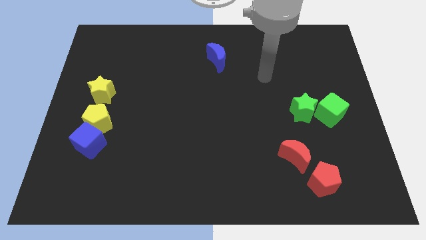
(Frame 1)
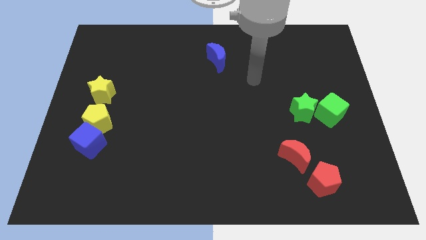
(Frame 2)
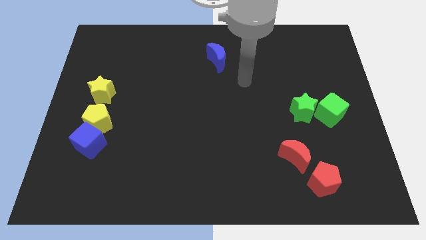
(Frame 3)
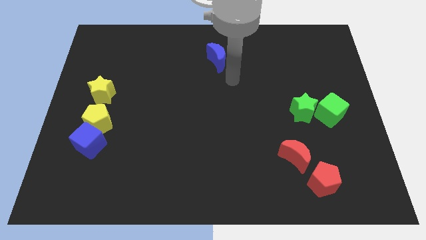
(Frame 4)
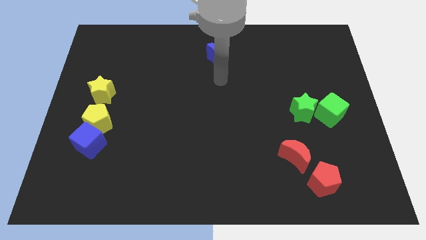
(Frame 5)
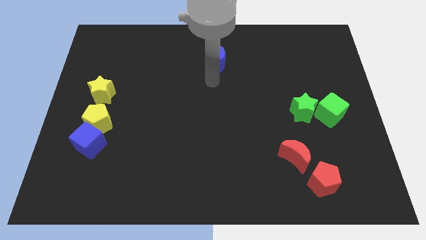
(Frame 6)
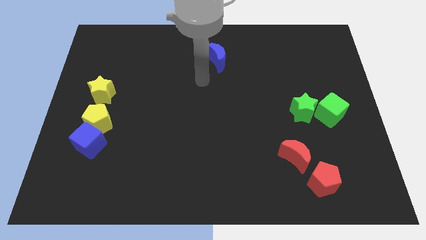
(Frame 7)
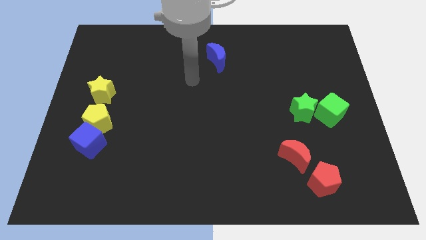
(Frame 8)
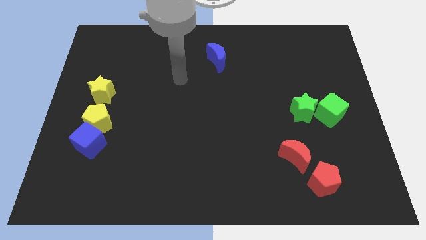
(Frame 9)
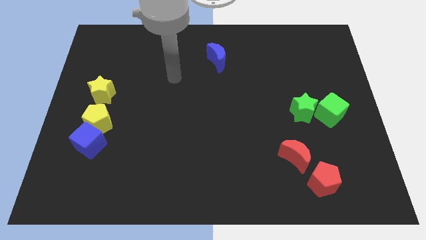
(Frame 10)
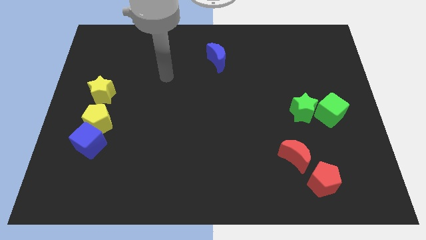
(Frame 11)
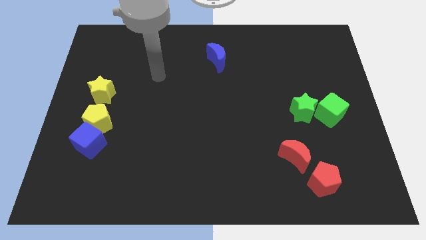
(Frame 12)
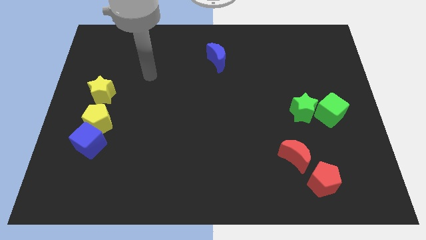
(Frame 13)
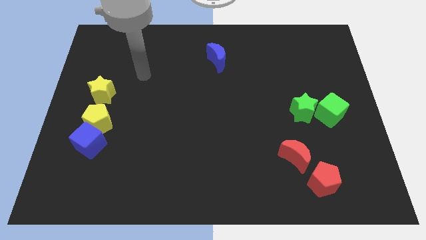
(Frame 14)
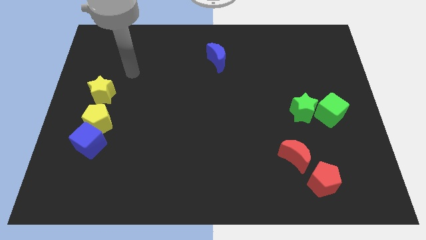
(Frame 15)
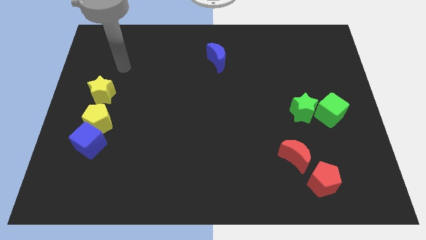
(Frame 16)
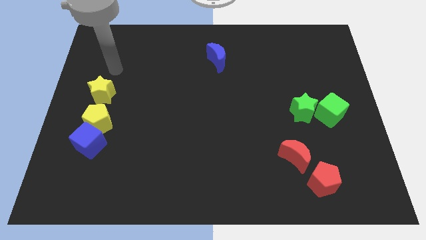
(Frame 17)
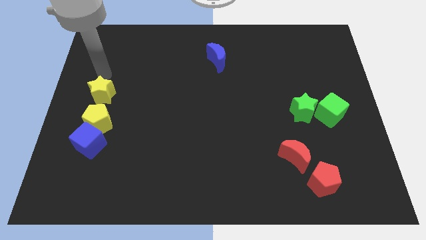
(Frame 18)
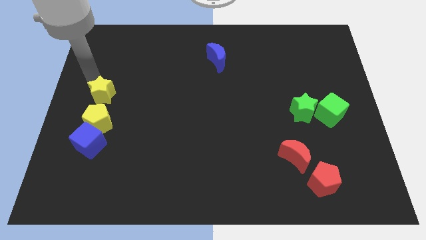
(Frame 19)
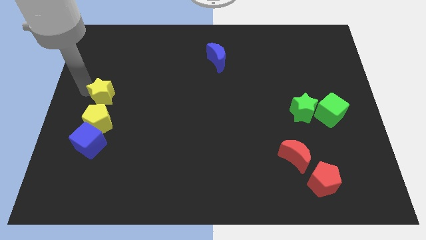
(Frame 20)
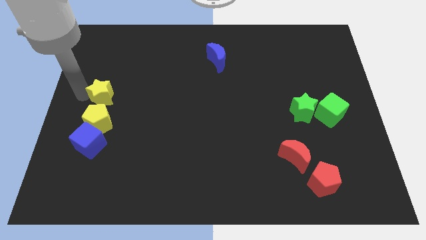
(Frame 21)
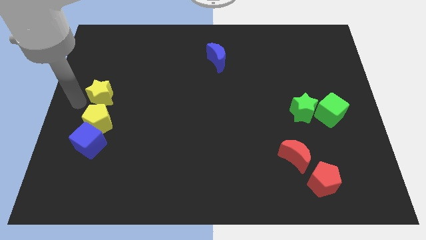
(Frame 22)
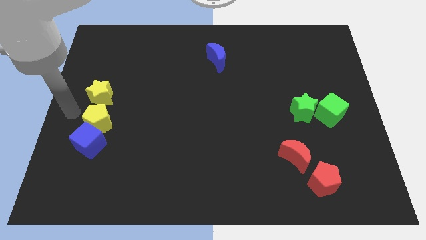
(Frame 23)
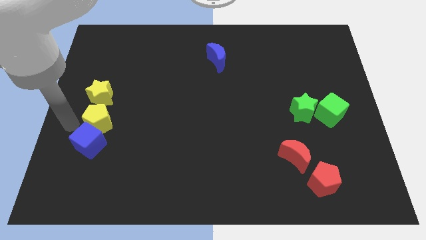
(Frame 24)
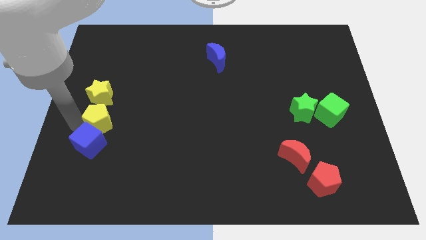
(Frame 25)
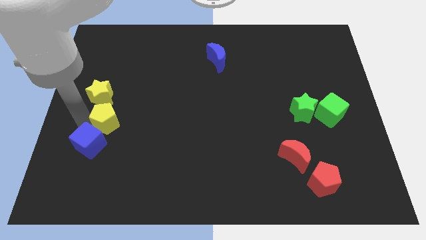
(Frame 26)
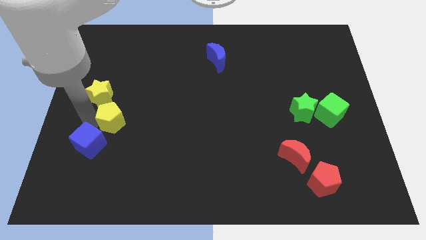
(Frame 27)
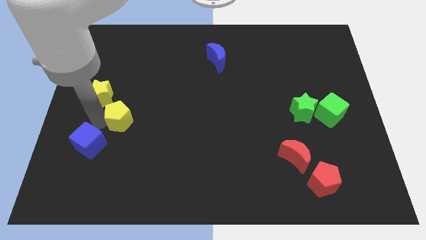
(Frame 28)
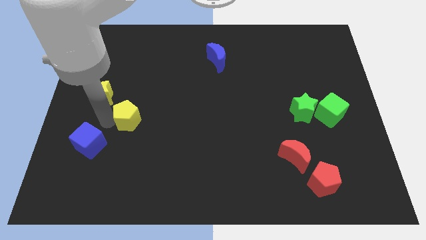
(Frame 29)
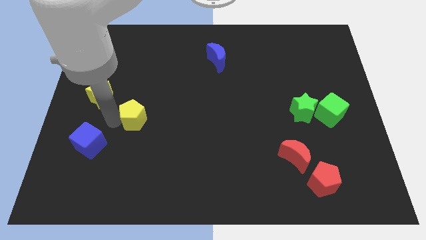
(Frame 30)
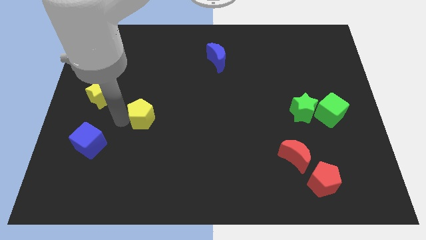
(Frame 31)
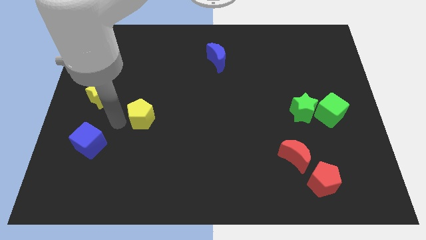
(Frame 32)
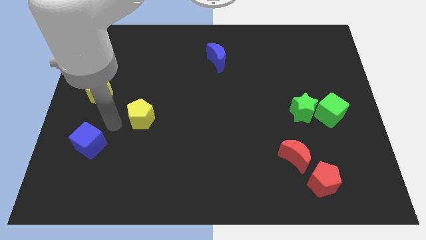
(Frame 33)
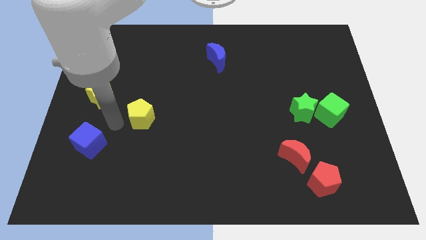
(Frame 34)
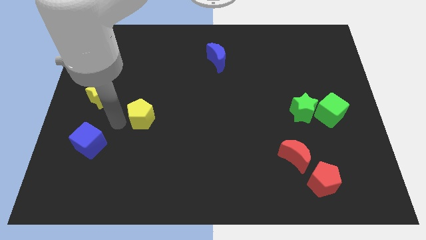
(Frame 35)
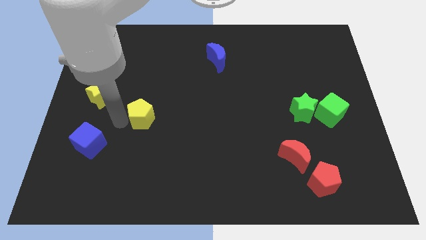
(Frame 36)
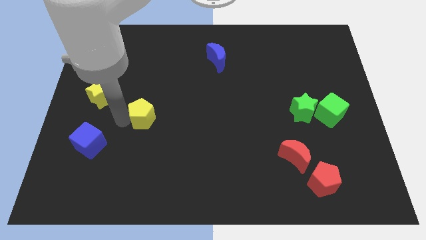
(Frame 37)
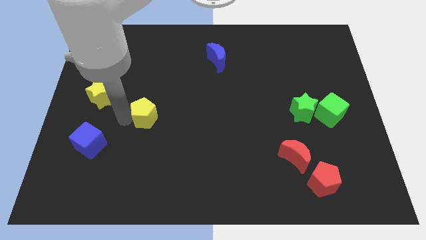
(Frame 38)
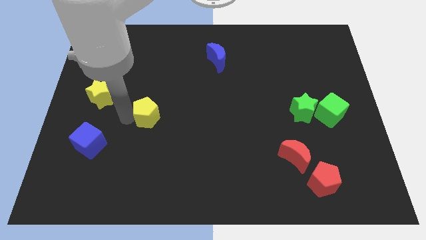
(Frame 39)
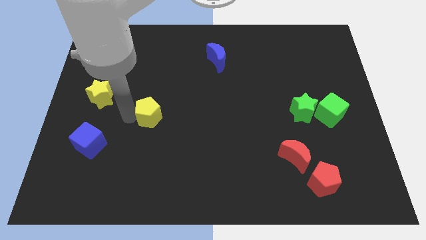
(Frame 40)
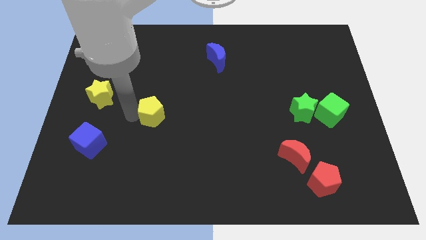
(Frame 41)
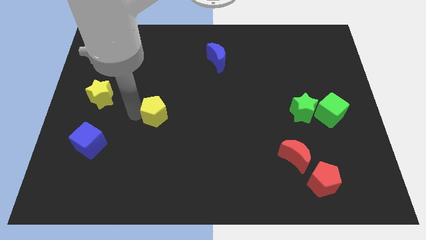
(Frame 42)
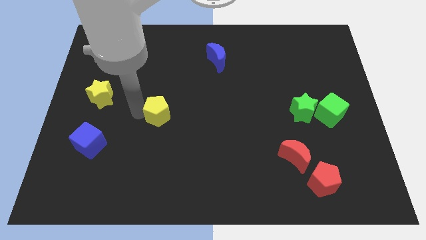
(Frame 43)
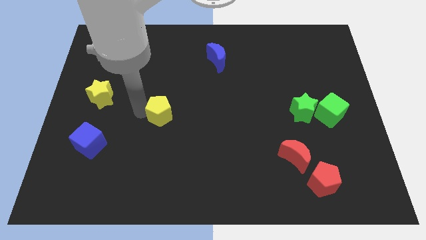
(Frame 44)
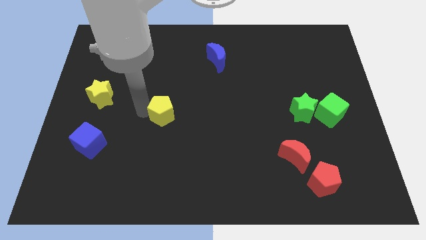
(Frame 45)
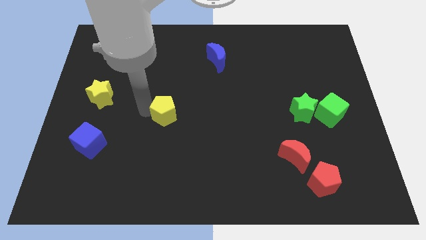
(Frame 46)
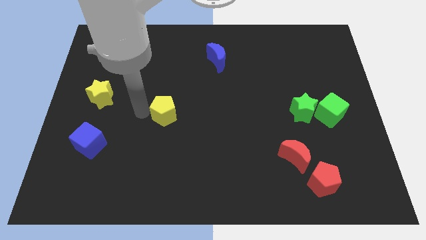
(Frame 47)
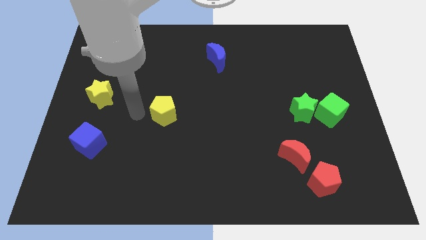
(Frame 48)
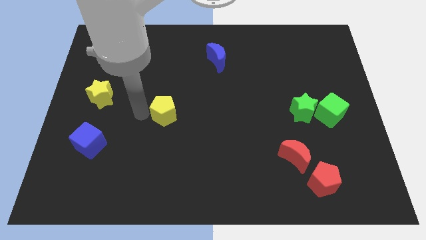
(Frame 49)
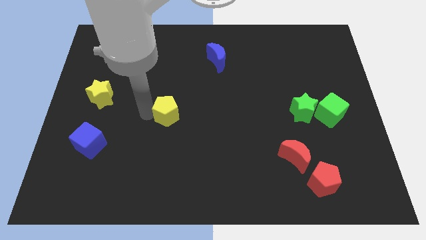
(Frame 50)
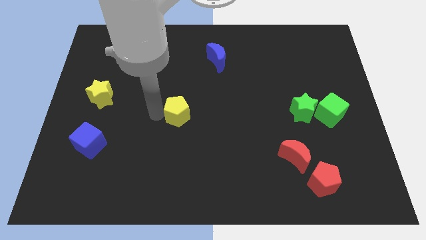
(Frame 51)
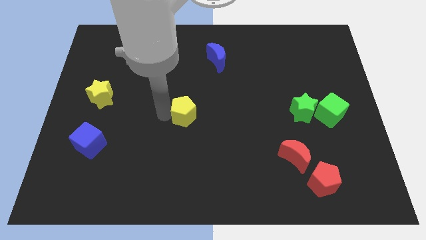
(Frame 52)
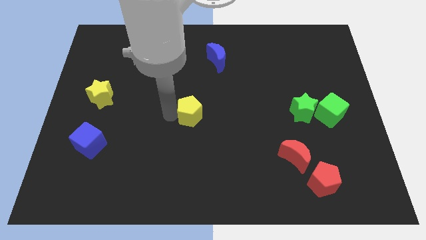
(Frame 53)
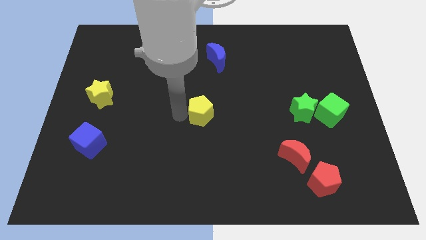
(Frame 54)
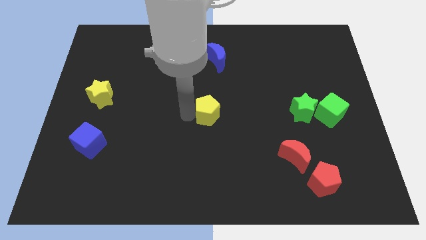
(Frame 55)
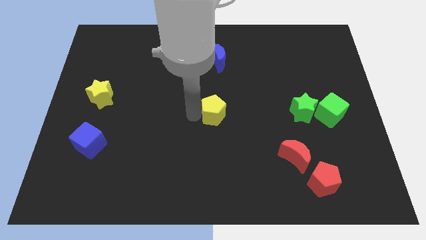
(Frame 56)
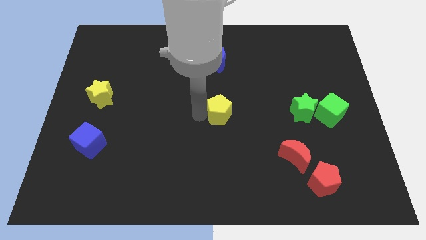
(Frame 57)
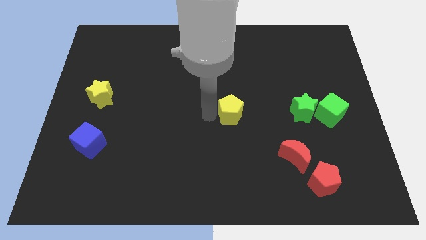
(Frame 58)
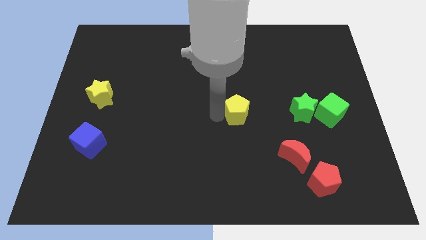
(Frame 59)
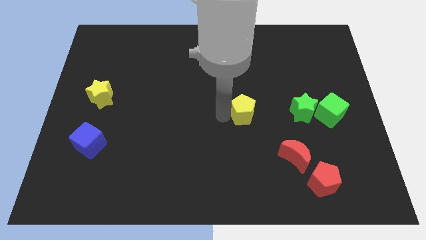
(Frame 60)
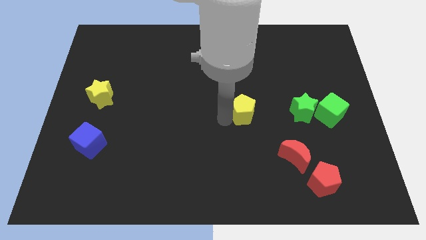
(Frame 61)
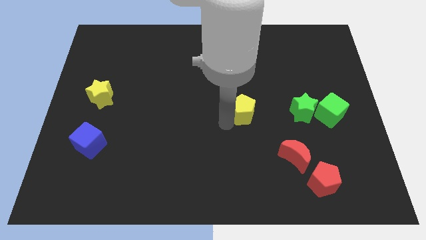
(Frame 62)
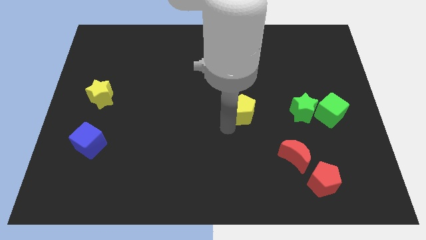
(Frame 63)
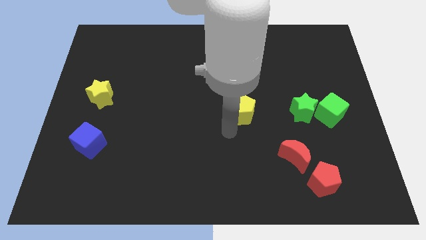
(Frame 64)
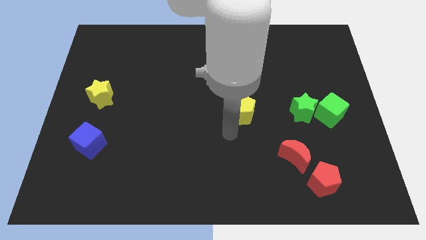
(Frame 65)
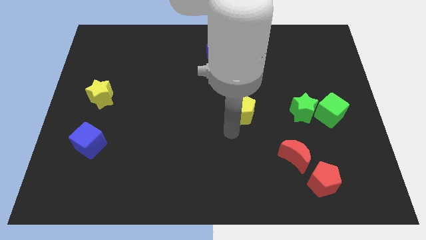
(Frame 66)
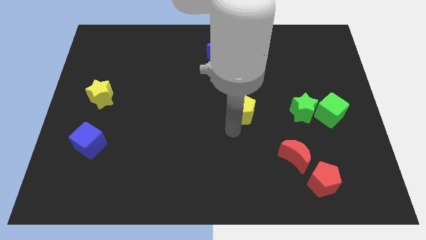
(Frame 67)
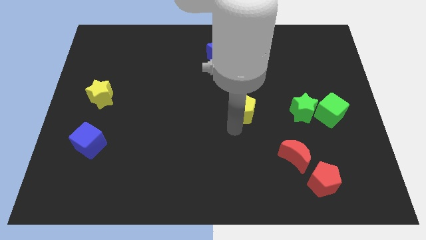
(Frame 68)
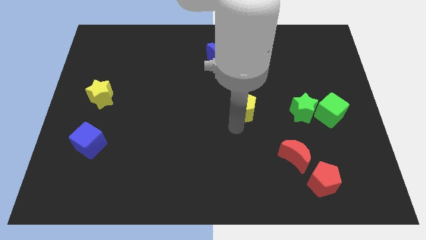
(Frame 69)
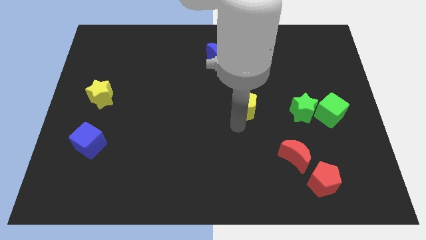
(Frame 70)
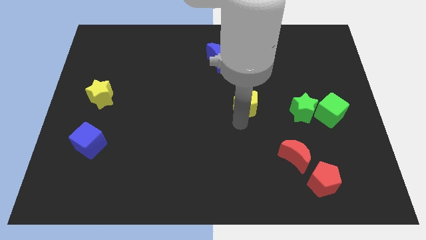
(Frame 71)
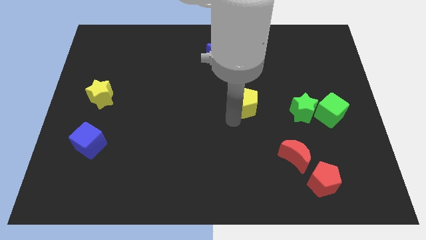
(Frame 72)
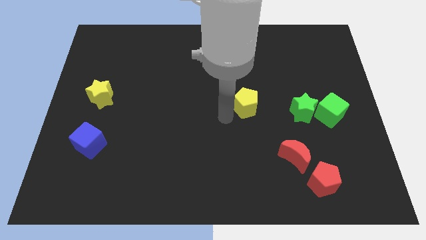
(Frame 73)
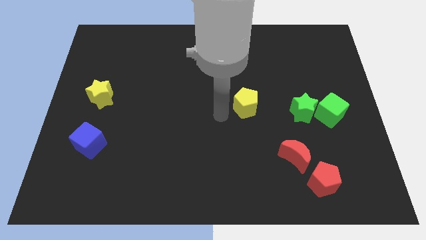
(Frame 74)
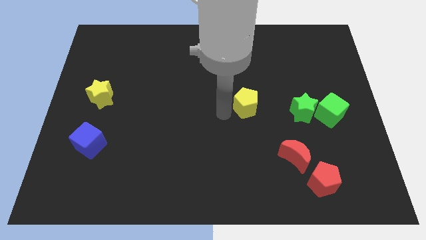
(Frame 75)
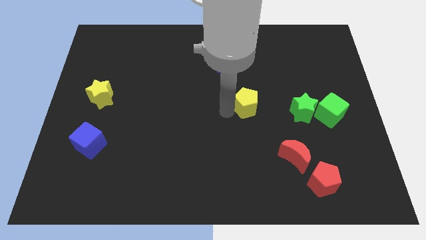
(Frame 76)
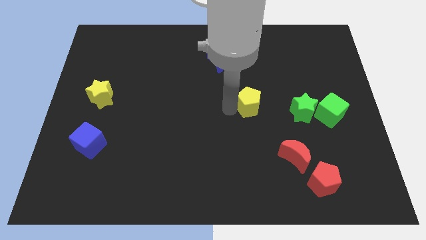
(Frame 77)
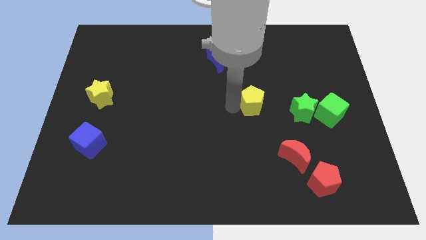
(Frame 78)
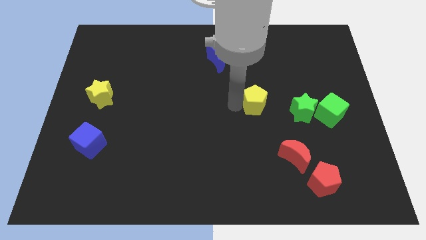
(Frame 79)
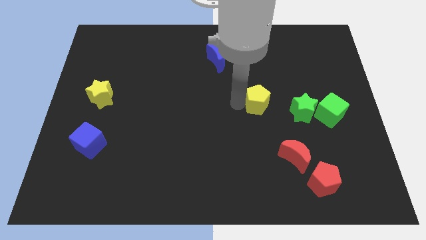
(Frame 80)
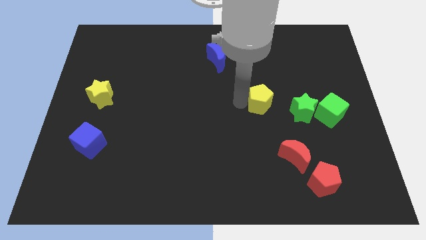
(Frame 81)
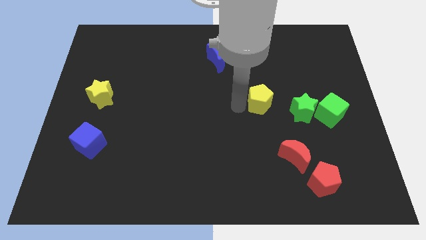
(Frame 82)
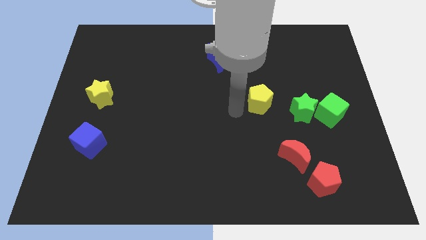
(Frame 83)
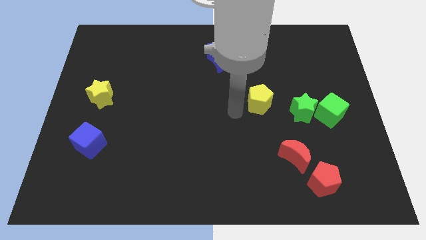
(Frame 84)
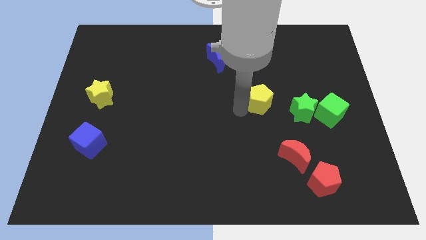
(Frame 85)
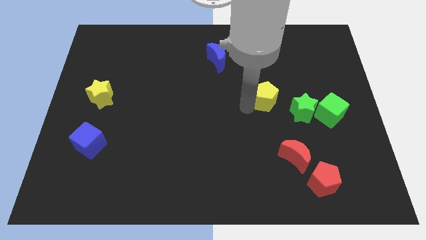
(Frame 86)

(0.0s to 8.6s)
push the yellow pentagon to the top left of the green star
